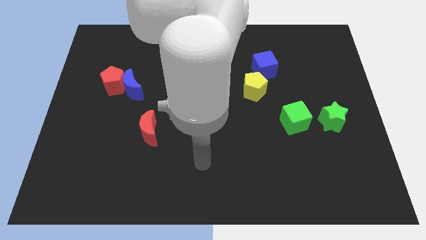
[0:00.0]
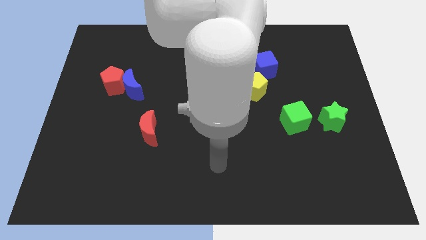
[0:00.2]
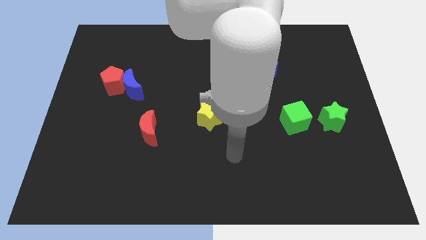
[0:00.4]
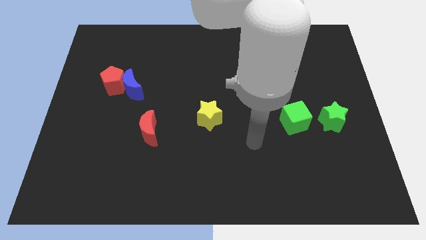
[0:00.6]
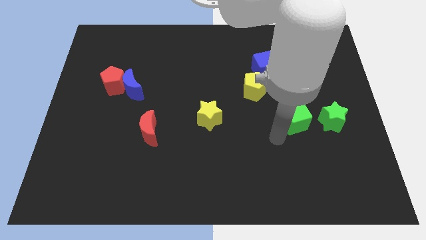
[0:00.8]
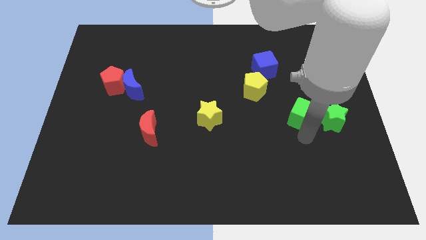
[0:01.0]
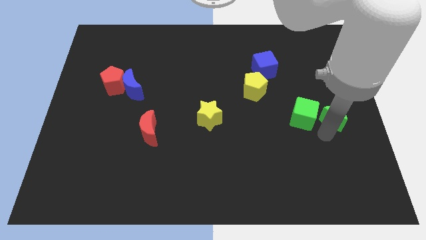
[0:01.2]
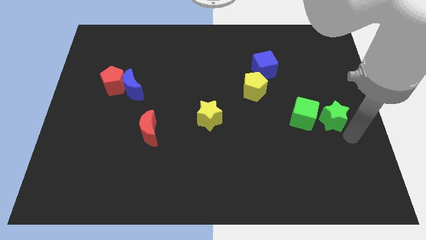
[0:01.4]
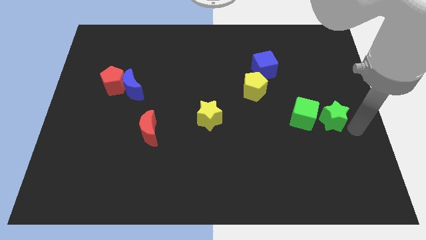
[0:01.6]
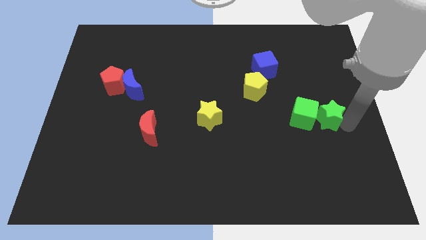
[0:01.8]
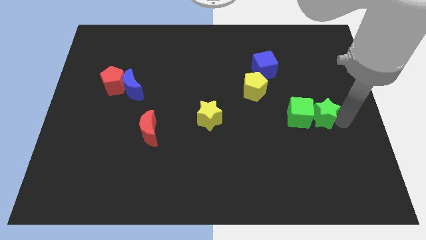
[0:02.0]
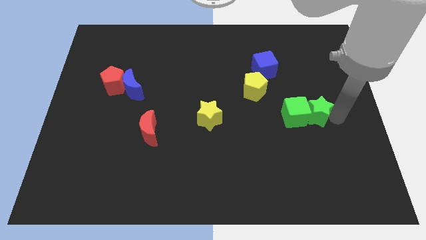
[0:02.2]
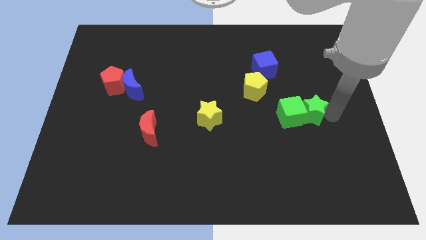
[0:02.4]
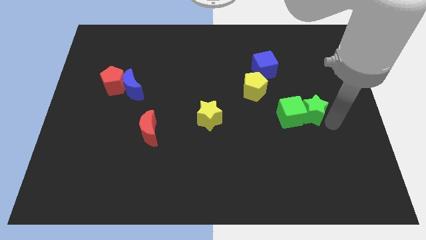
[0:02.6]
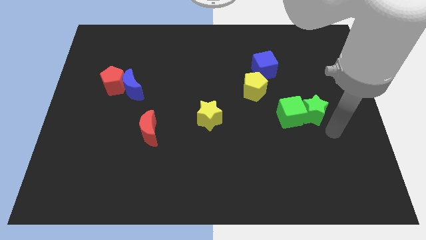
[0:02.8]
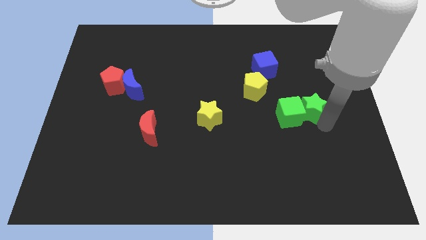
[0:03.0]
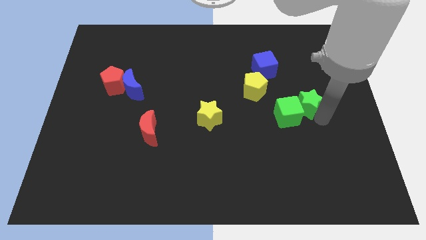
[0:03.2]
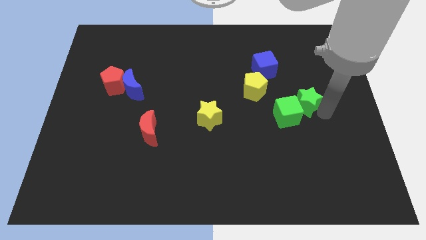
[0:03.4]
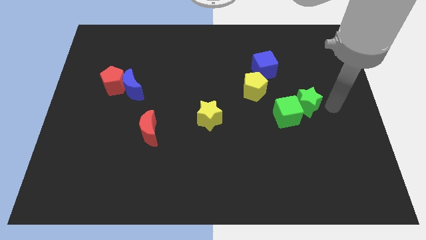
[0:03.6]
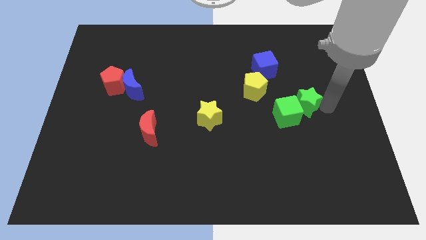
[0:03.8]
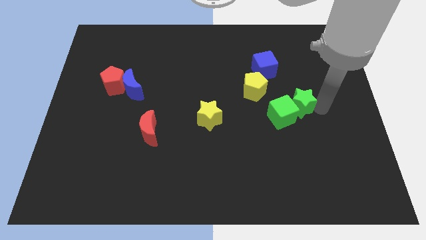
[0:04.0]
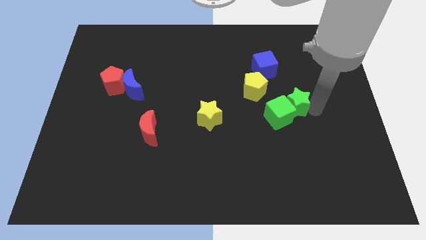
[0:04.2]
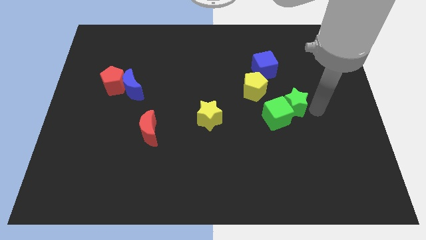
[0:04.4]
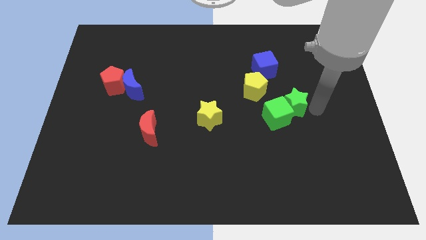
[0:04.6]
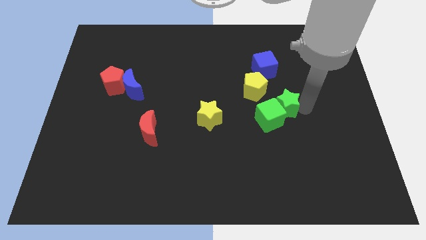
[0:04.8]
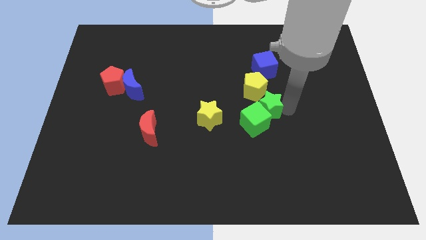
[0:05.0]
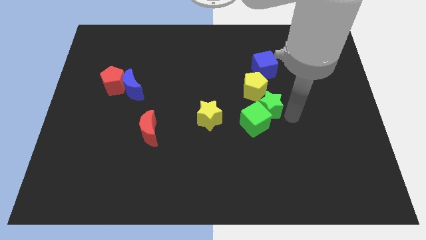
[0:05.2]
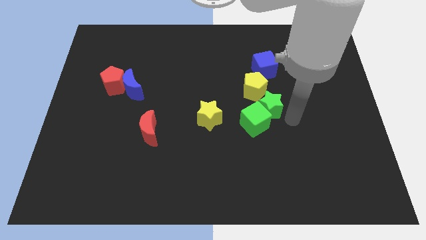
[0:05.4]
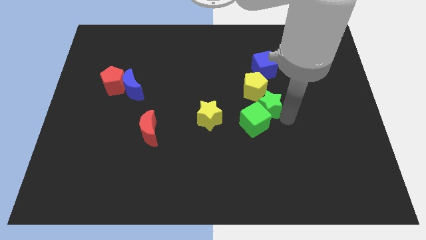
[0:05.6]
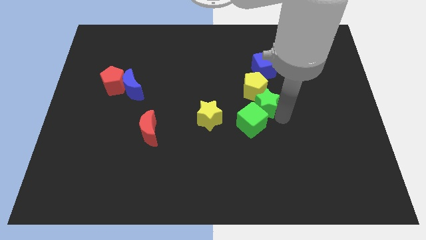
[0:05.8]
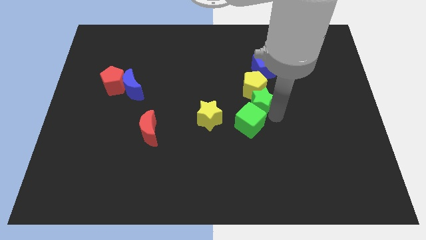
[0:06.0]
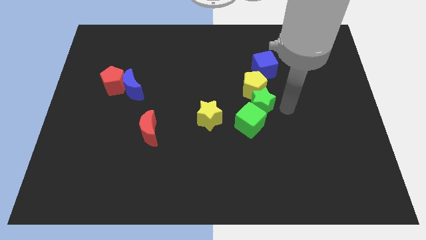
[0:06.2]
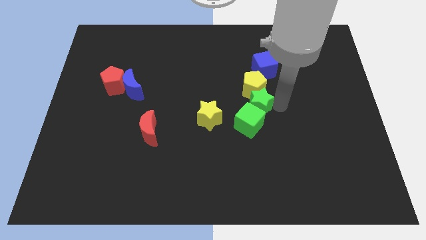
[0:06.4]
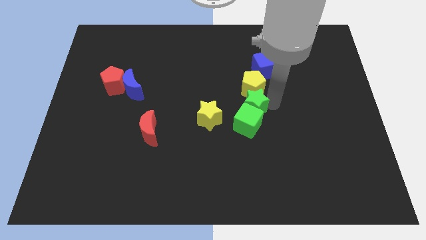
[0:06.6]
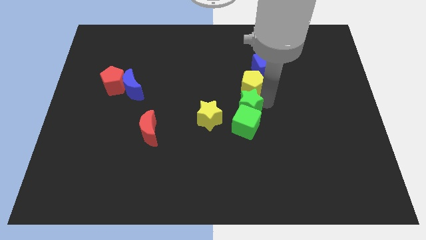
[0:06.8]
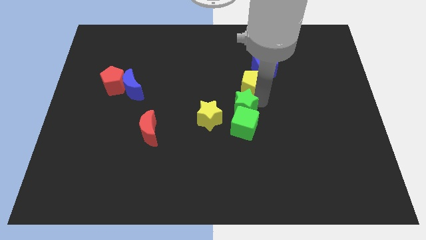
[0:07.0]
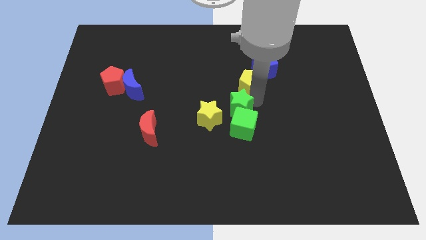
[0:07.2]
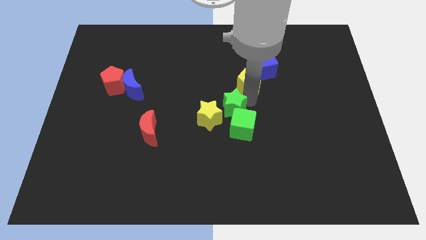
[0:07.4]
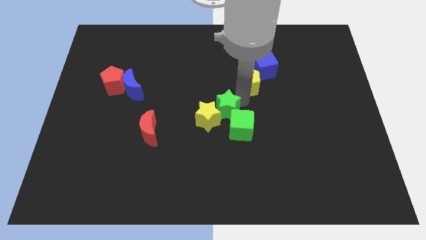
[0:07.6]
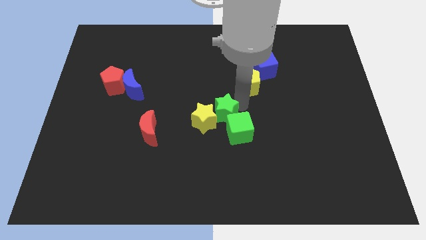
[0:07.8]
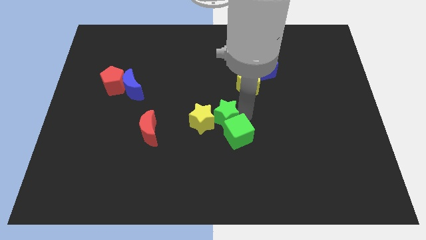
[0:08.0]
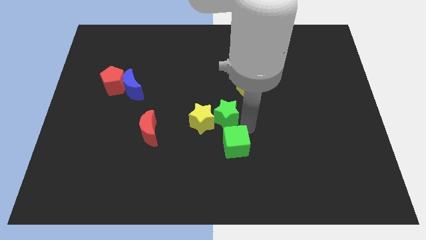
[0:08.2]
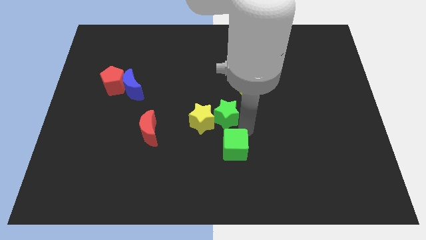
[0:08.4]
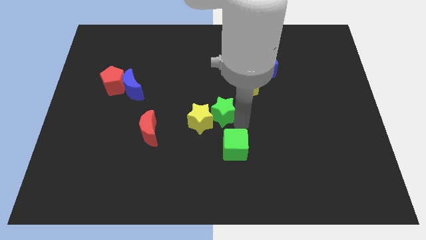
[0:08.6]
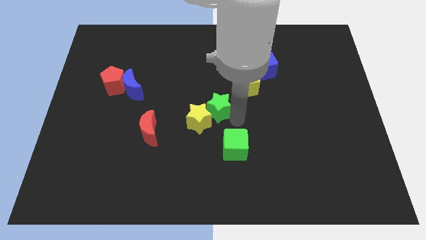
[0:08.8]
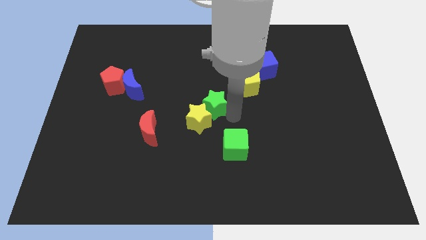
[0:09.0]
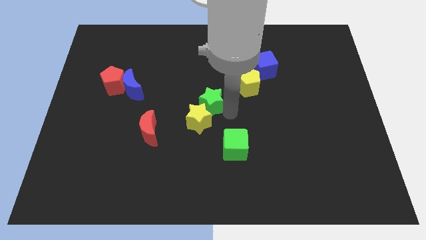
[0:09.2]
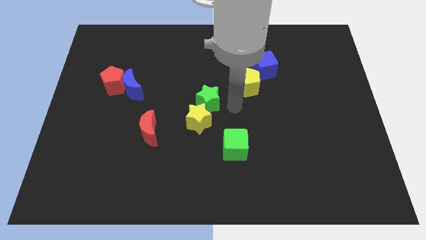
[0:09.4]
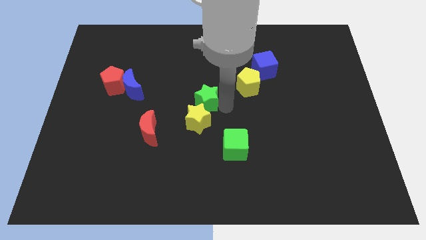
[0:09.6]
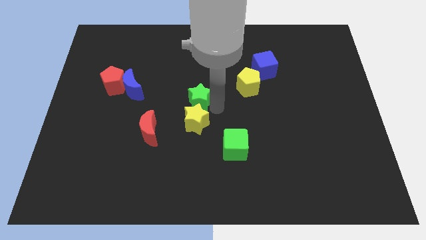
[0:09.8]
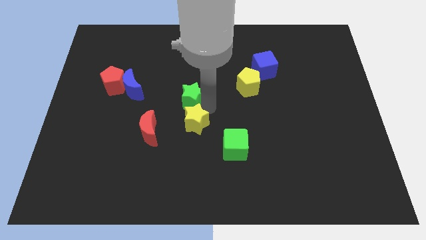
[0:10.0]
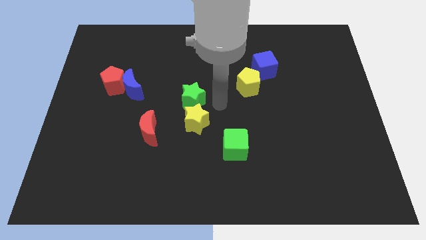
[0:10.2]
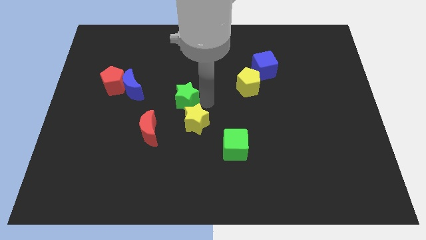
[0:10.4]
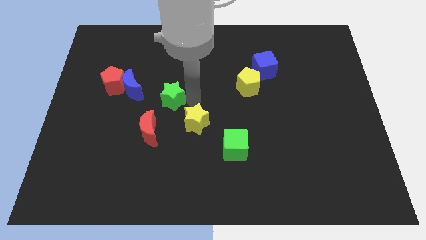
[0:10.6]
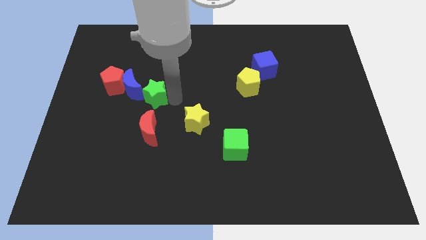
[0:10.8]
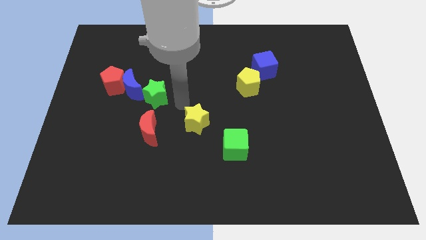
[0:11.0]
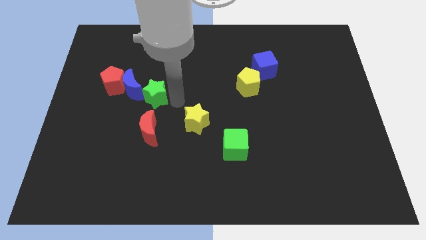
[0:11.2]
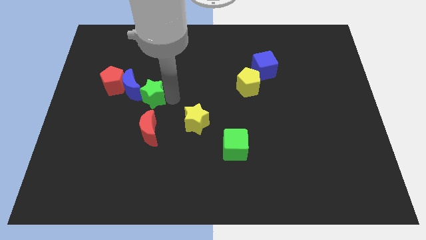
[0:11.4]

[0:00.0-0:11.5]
put the green star towards the blue moon

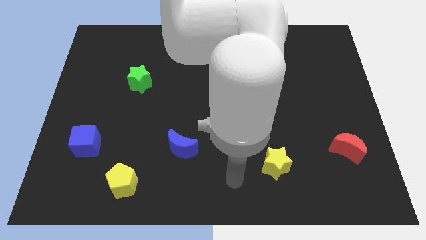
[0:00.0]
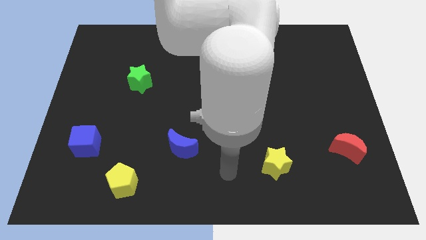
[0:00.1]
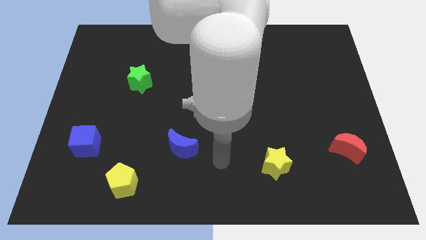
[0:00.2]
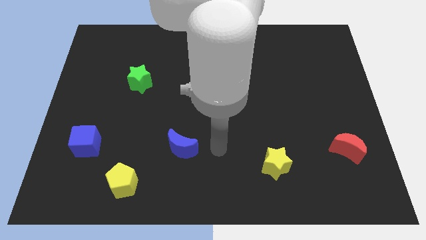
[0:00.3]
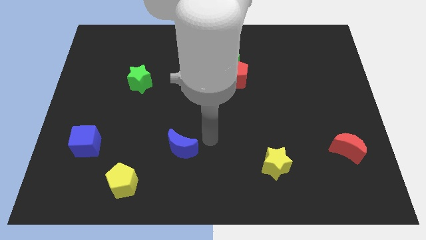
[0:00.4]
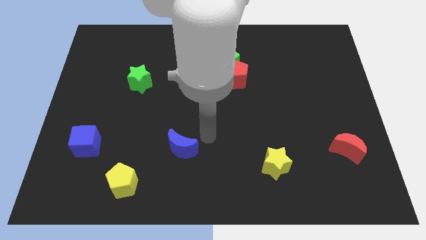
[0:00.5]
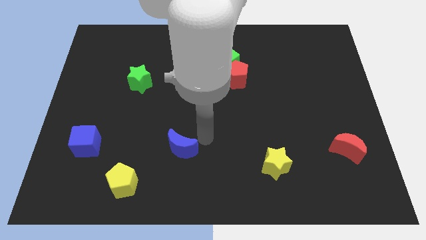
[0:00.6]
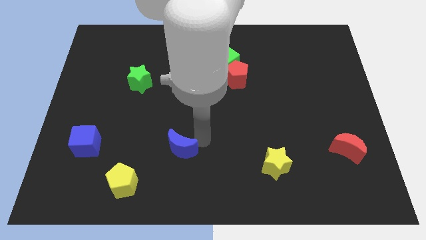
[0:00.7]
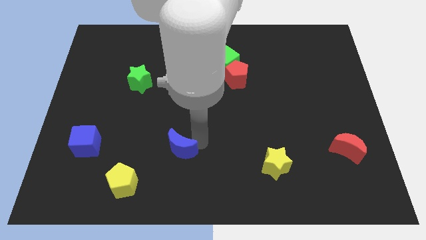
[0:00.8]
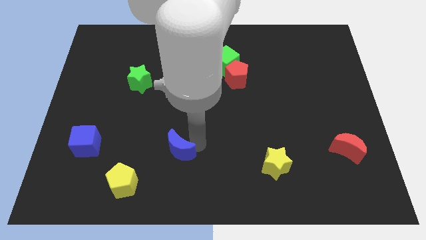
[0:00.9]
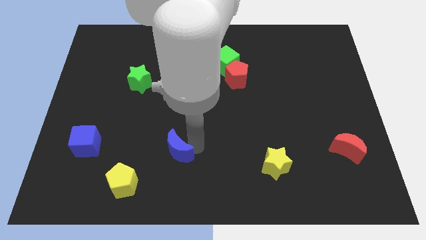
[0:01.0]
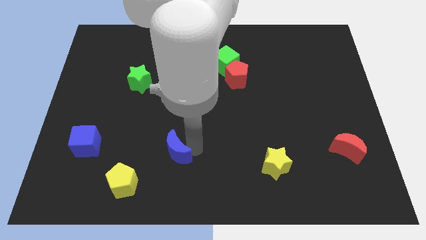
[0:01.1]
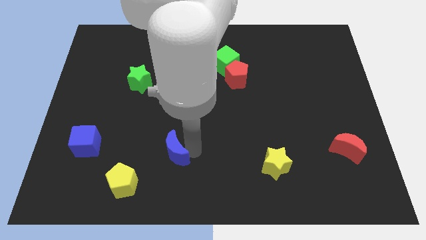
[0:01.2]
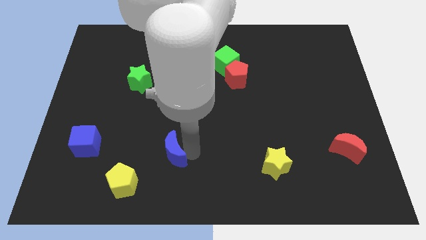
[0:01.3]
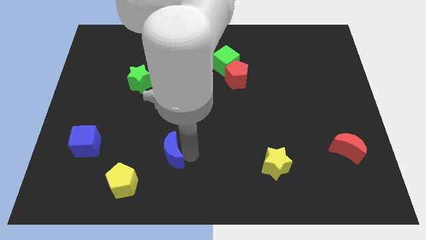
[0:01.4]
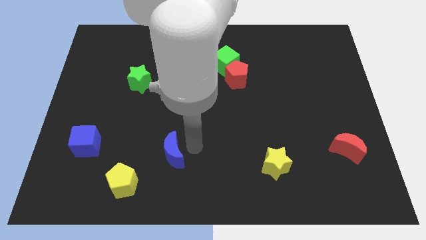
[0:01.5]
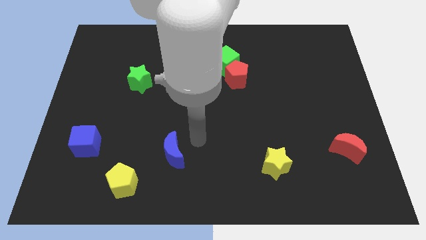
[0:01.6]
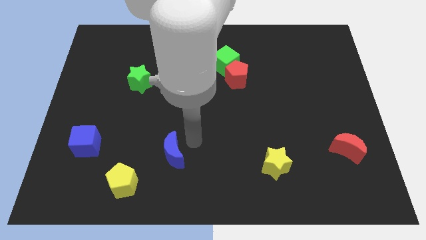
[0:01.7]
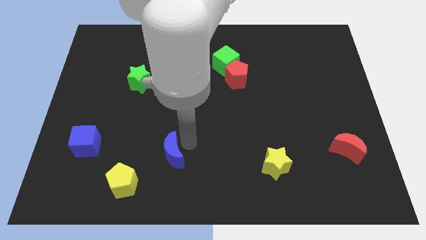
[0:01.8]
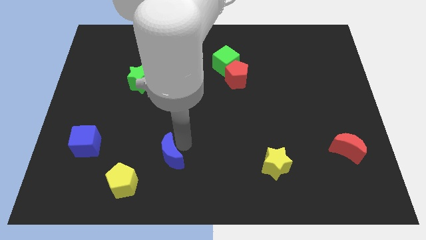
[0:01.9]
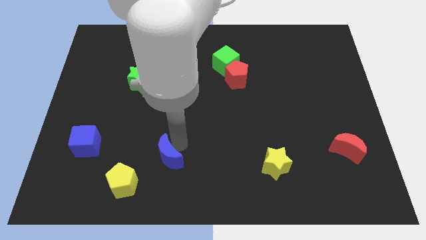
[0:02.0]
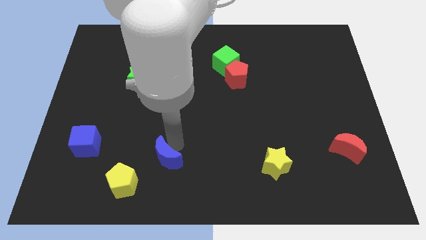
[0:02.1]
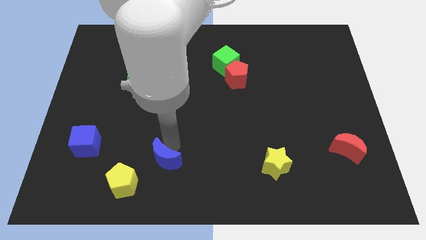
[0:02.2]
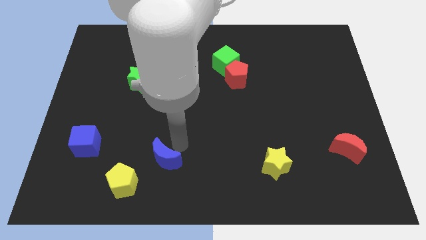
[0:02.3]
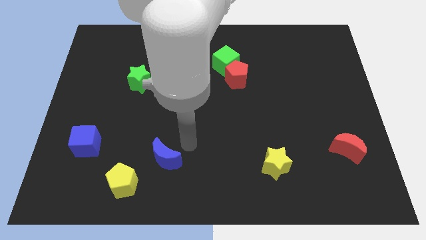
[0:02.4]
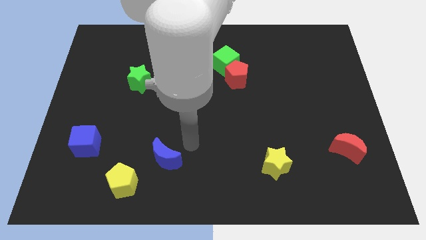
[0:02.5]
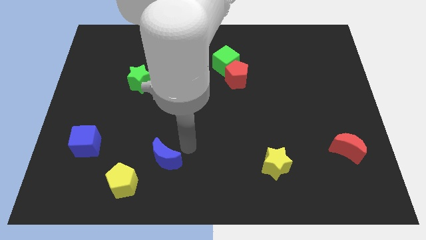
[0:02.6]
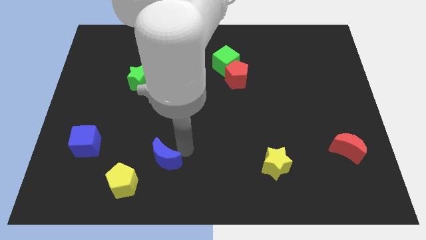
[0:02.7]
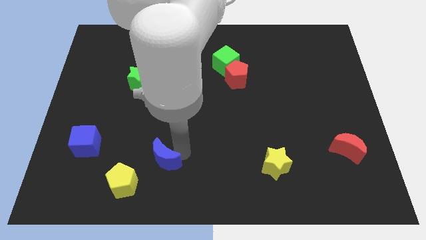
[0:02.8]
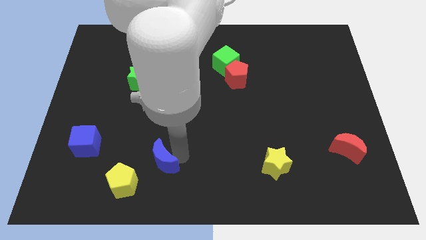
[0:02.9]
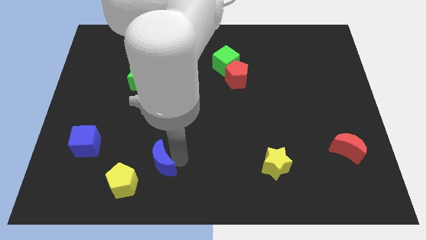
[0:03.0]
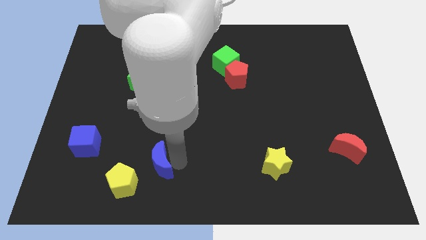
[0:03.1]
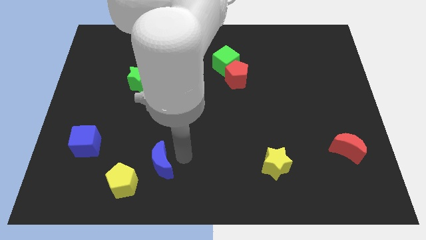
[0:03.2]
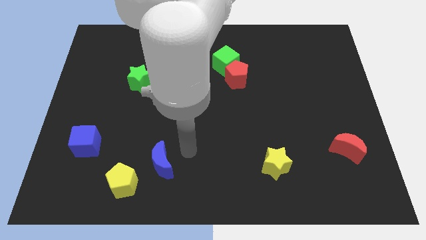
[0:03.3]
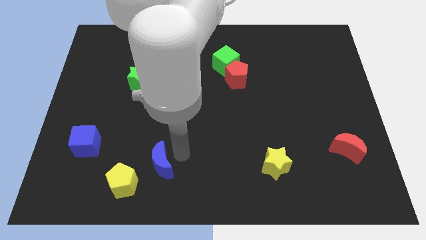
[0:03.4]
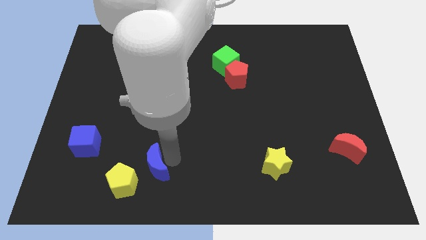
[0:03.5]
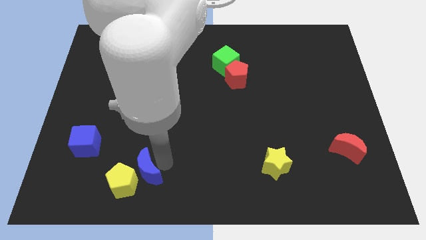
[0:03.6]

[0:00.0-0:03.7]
slide the blue moon next to the yellow pentagon
